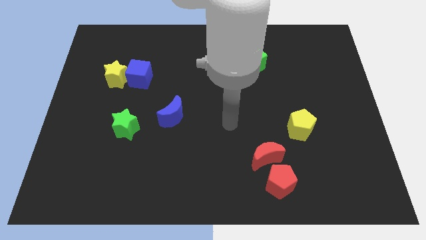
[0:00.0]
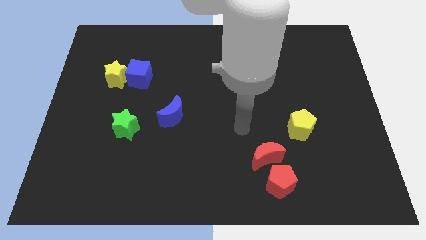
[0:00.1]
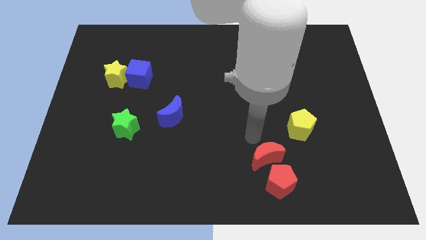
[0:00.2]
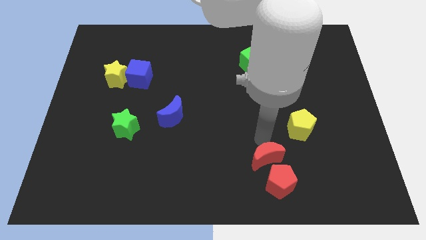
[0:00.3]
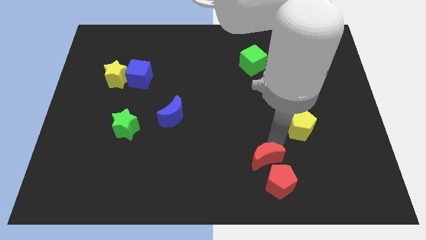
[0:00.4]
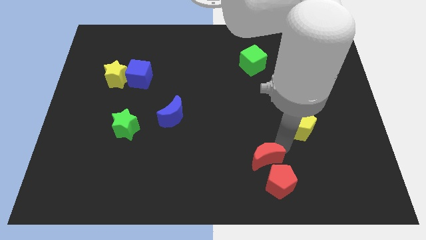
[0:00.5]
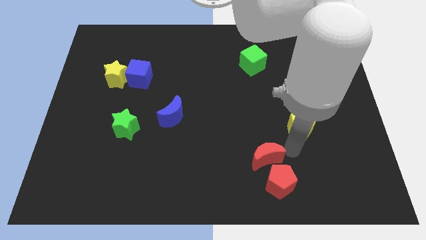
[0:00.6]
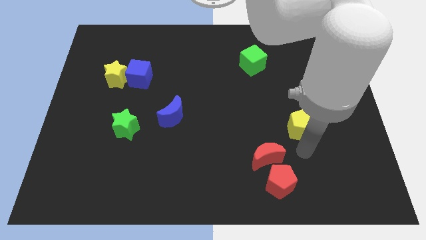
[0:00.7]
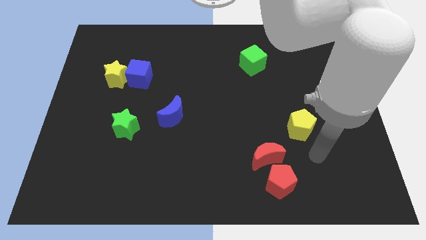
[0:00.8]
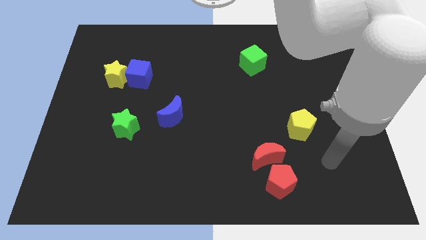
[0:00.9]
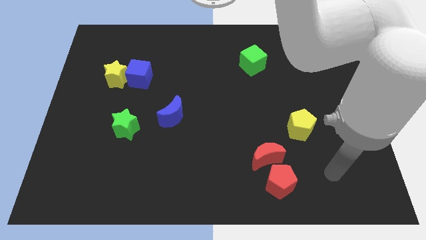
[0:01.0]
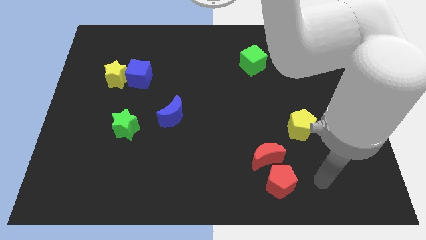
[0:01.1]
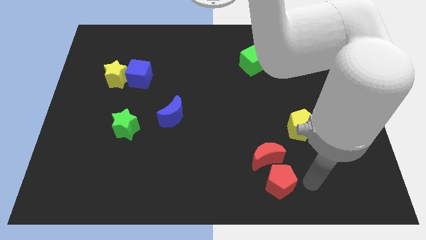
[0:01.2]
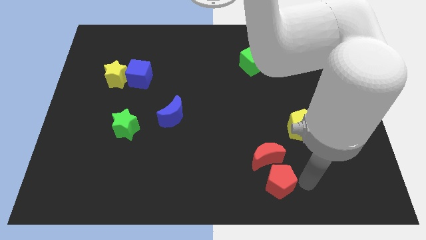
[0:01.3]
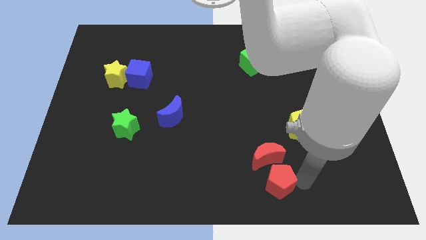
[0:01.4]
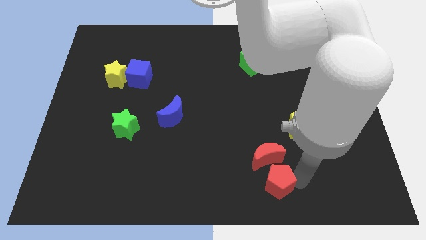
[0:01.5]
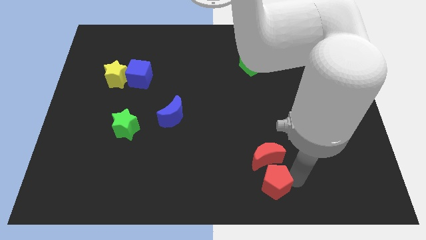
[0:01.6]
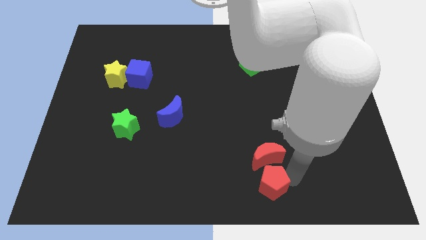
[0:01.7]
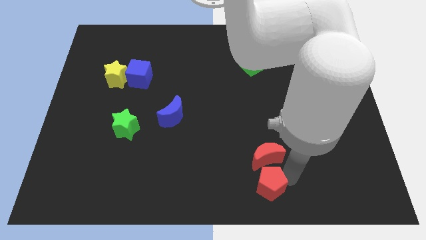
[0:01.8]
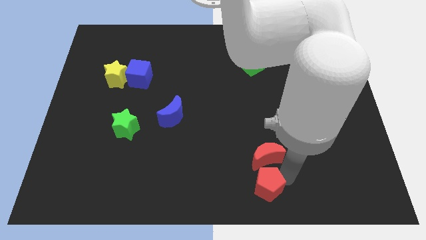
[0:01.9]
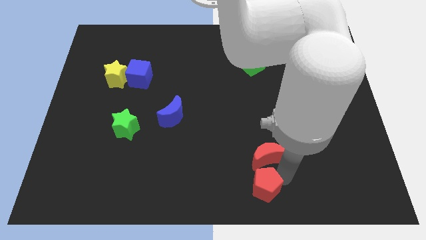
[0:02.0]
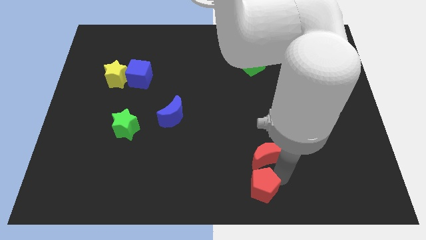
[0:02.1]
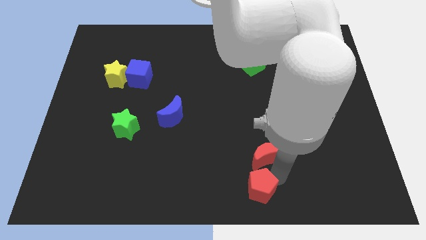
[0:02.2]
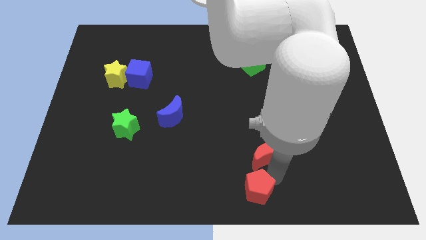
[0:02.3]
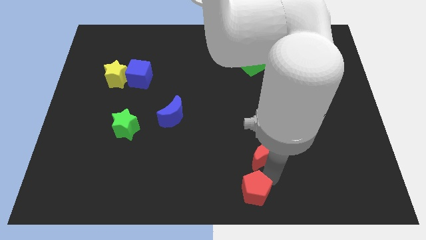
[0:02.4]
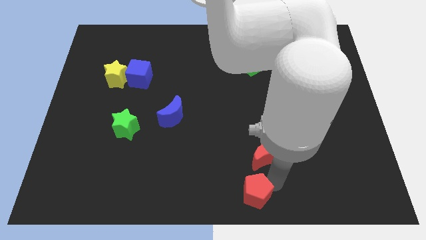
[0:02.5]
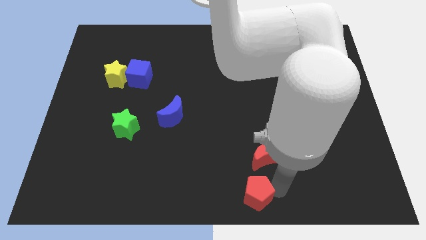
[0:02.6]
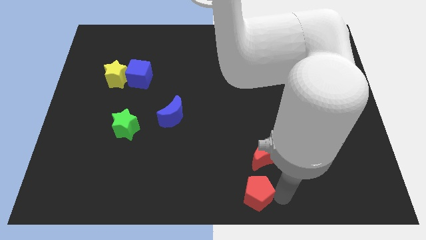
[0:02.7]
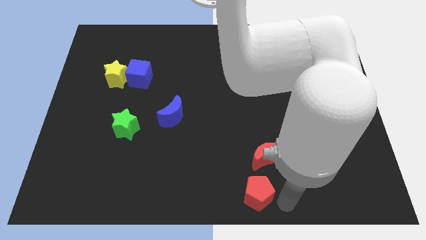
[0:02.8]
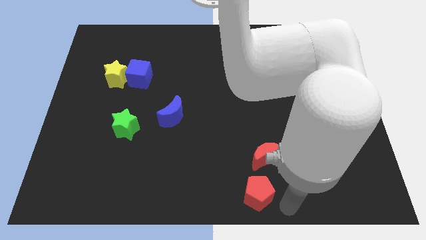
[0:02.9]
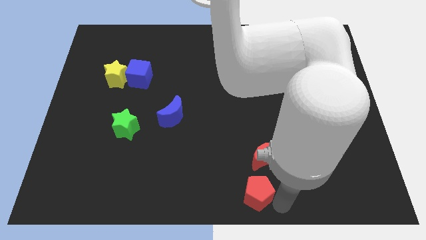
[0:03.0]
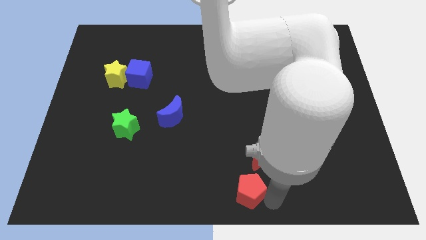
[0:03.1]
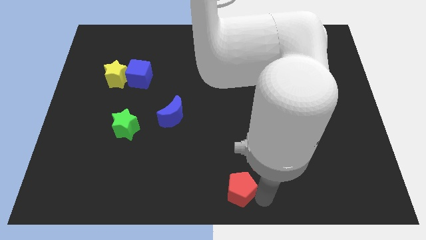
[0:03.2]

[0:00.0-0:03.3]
slightly slide the red pentagon left

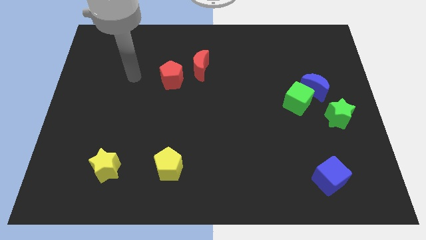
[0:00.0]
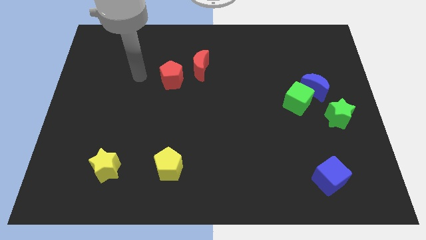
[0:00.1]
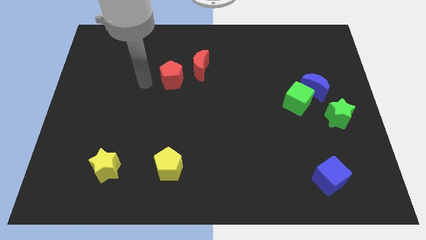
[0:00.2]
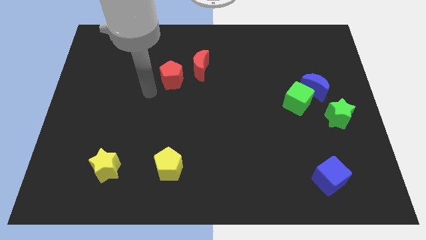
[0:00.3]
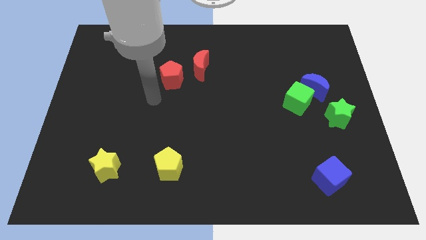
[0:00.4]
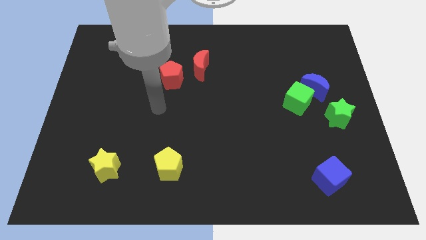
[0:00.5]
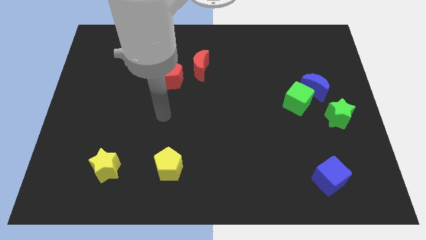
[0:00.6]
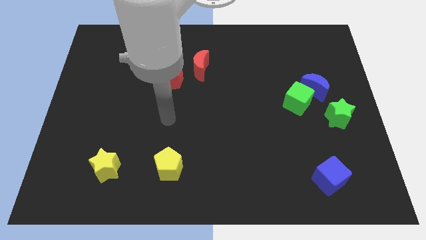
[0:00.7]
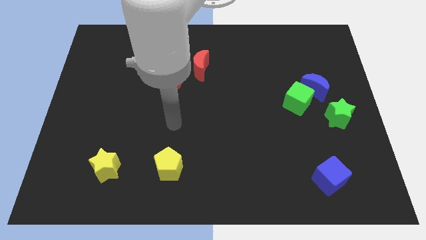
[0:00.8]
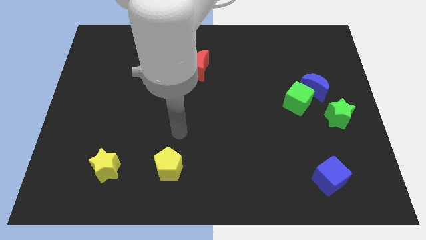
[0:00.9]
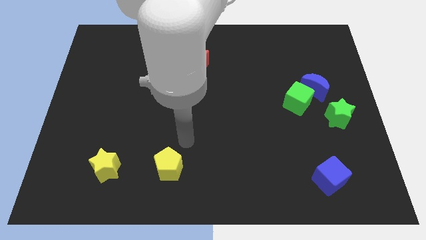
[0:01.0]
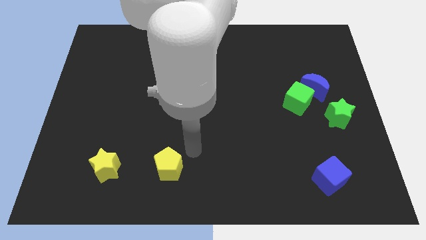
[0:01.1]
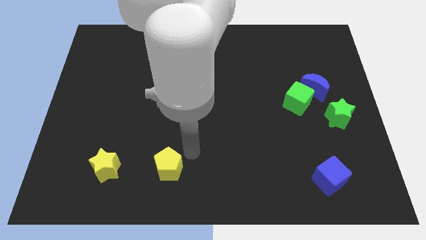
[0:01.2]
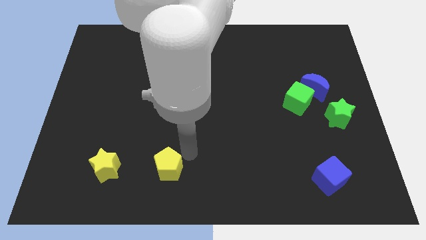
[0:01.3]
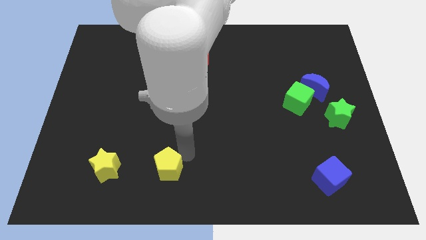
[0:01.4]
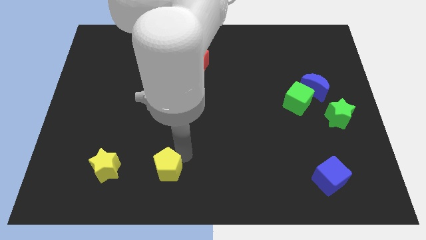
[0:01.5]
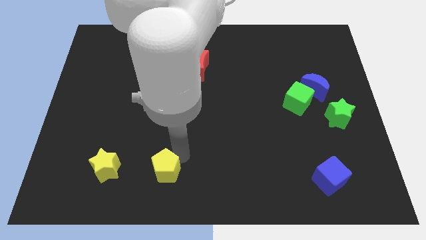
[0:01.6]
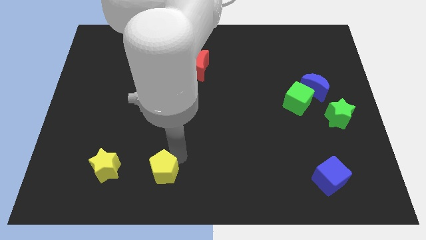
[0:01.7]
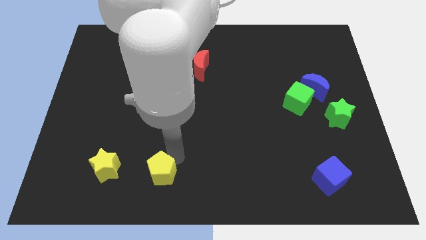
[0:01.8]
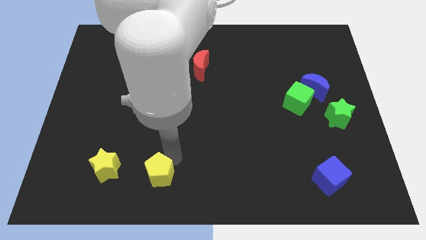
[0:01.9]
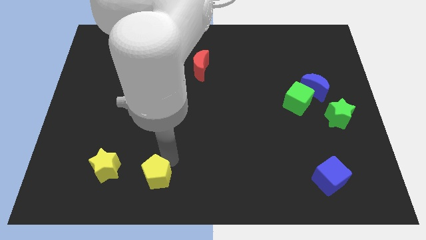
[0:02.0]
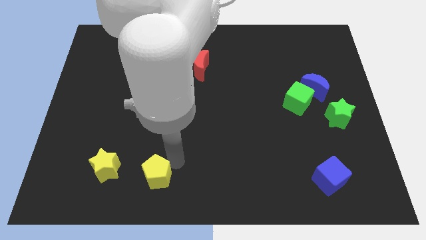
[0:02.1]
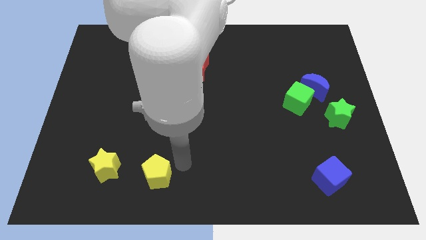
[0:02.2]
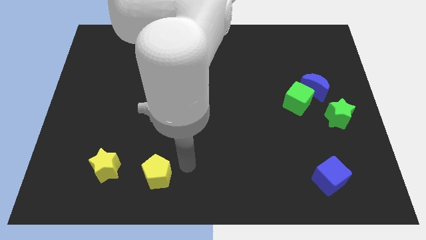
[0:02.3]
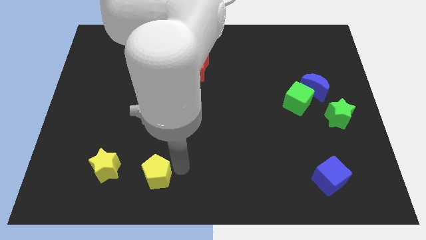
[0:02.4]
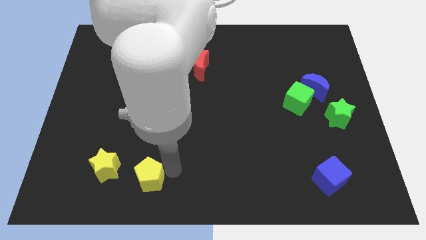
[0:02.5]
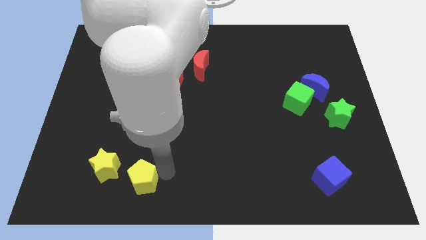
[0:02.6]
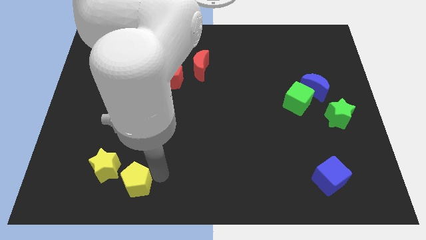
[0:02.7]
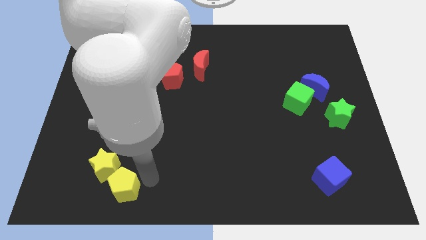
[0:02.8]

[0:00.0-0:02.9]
slightly slide the yellow pentagon to the left

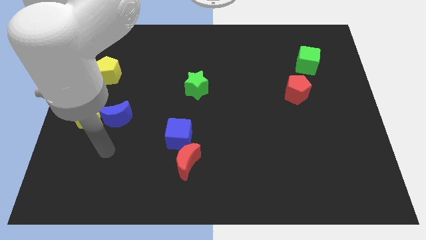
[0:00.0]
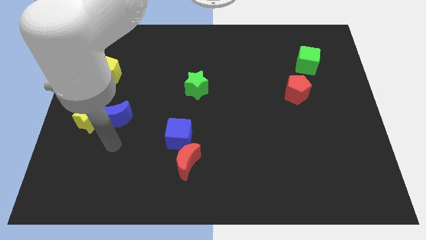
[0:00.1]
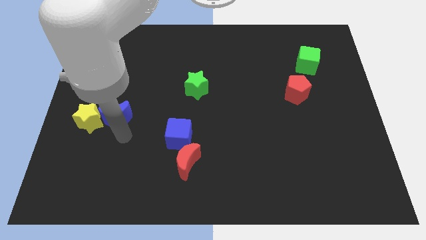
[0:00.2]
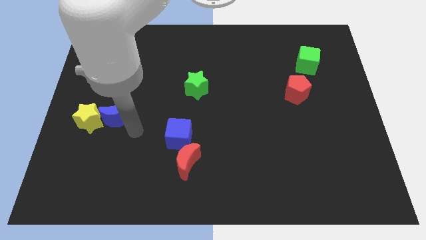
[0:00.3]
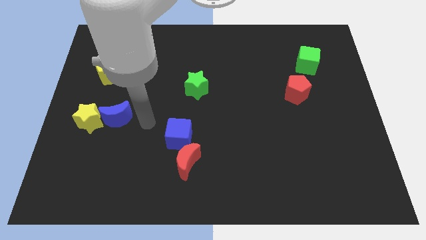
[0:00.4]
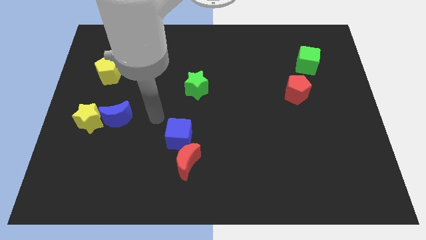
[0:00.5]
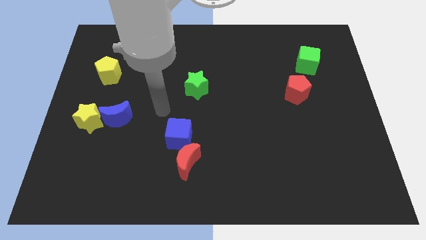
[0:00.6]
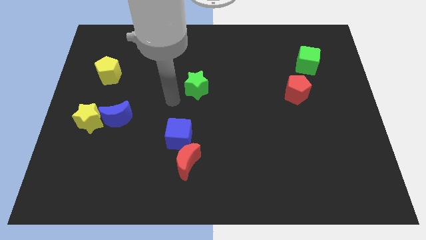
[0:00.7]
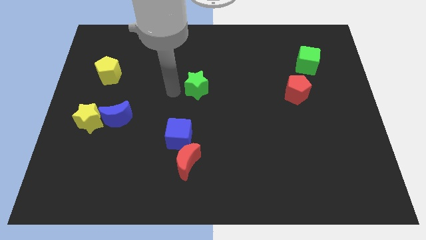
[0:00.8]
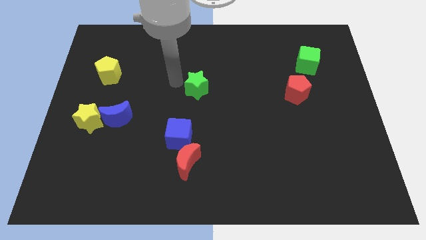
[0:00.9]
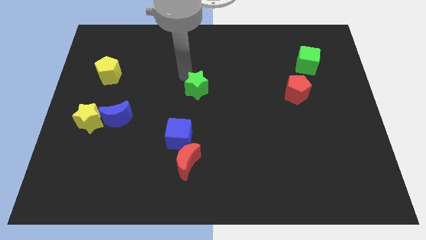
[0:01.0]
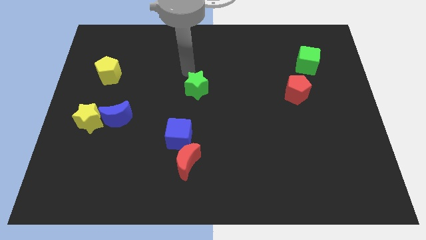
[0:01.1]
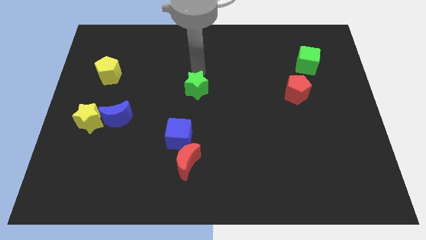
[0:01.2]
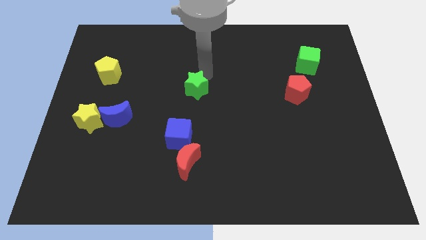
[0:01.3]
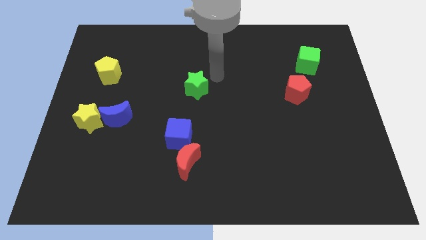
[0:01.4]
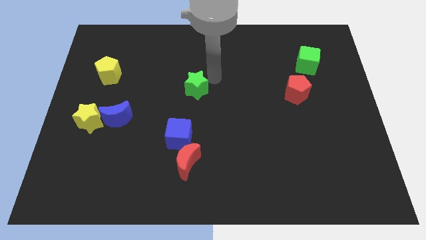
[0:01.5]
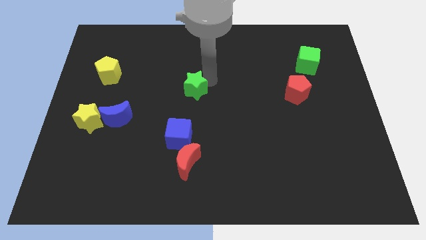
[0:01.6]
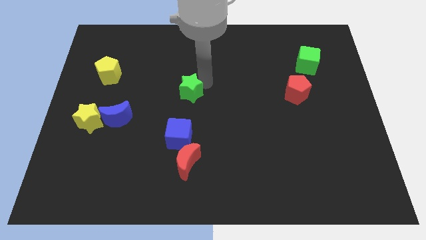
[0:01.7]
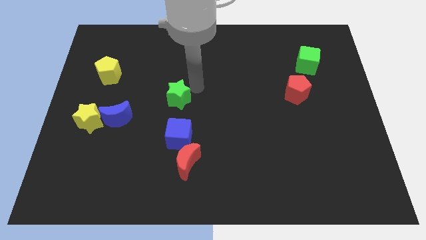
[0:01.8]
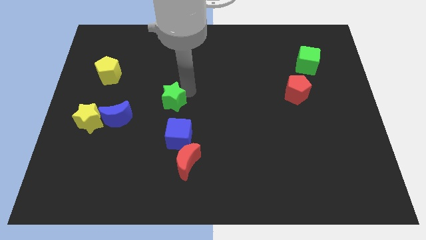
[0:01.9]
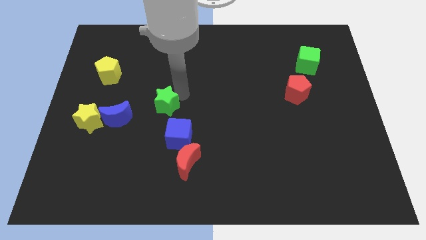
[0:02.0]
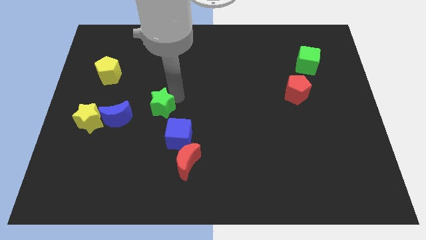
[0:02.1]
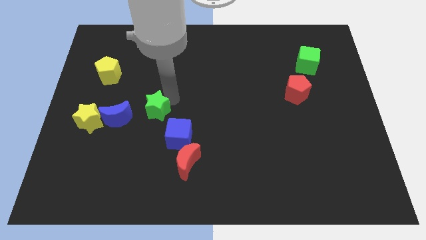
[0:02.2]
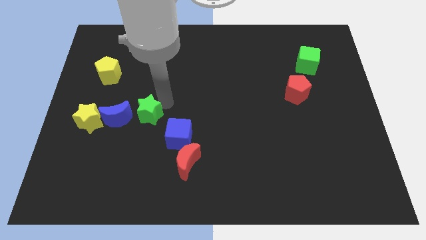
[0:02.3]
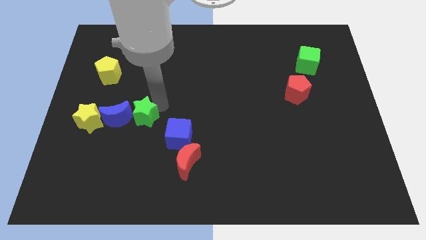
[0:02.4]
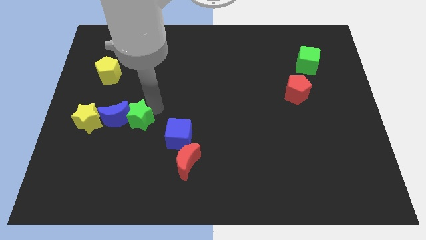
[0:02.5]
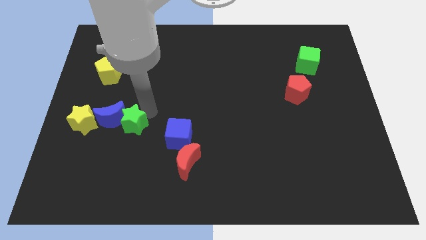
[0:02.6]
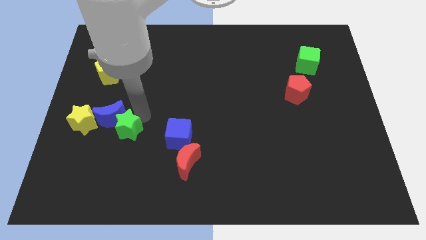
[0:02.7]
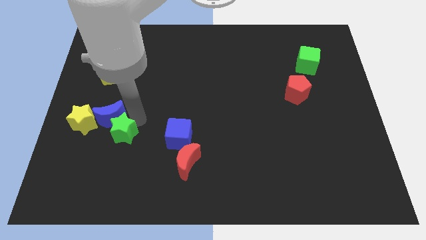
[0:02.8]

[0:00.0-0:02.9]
move the green star down and left
